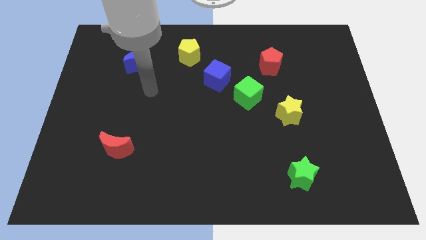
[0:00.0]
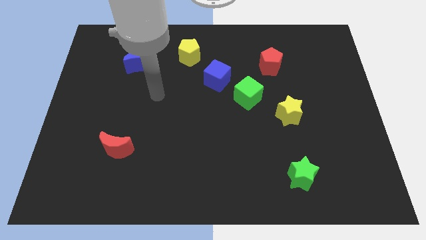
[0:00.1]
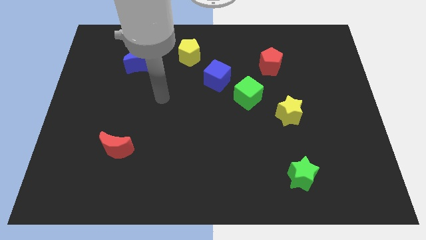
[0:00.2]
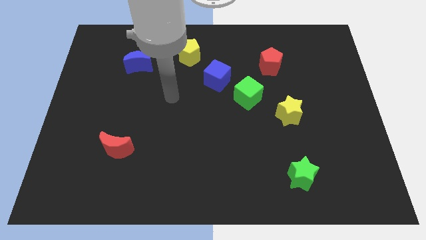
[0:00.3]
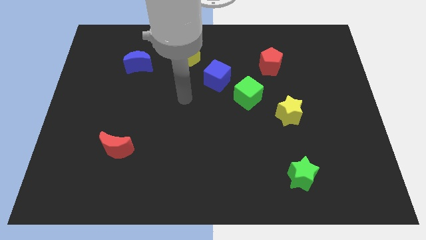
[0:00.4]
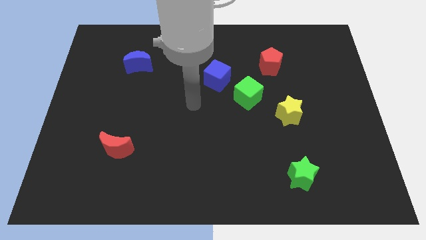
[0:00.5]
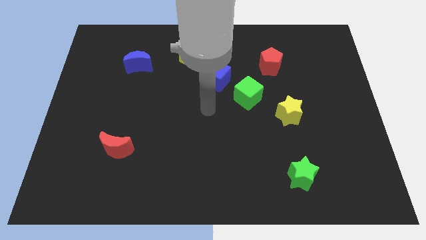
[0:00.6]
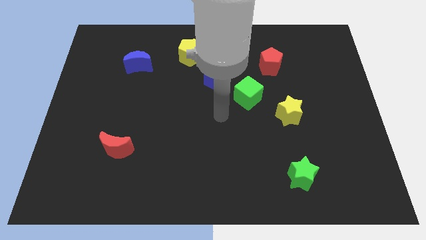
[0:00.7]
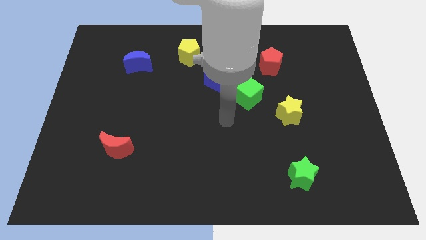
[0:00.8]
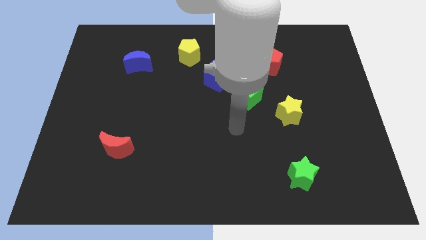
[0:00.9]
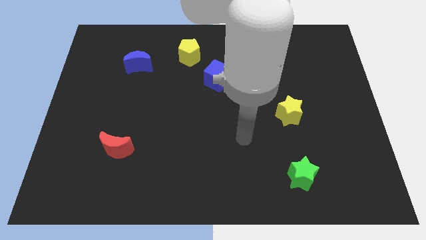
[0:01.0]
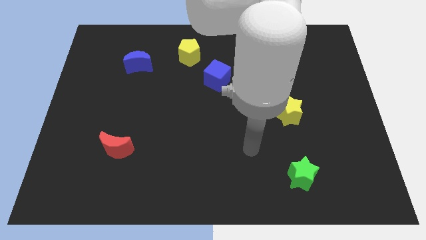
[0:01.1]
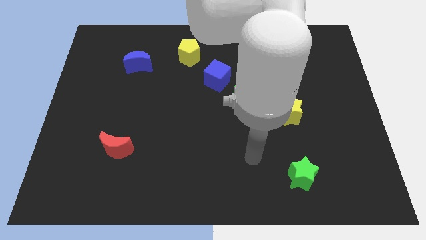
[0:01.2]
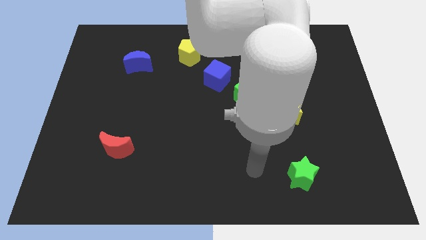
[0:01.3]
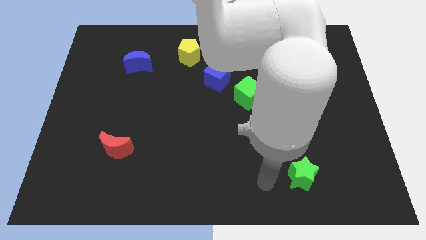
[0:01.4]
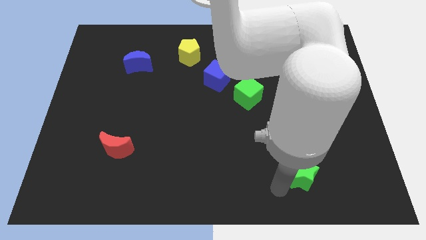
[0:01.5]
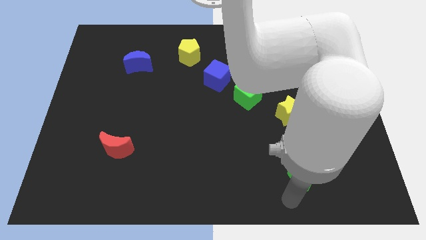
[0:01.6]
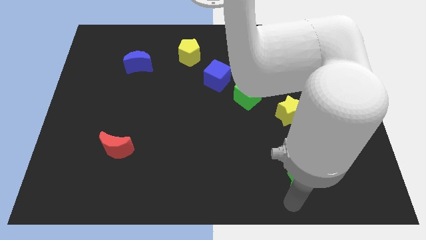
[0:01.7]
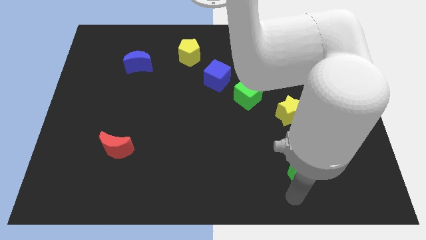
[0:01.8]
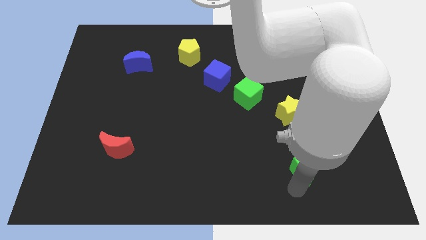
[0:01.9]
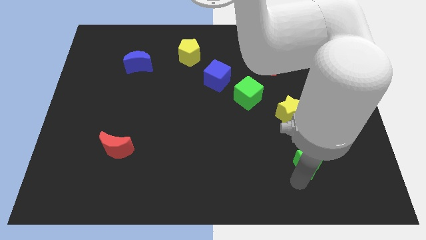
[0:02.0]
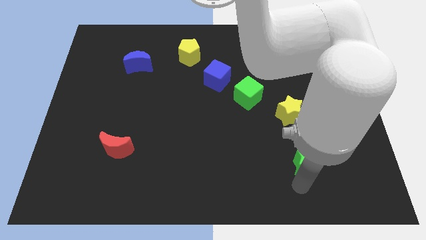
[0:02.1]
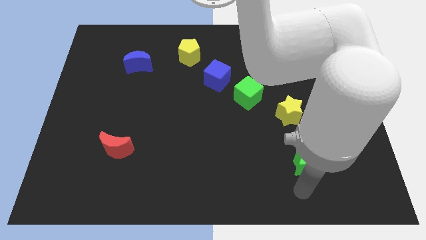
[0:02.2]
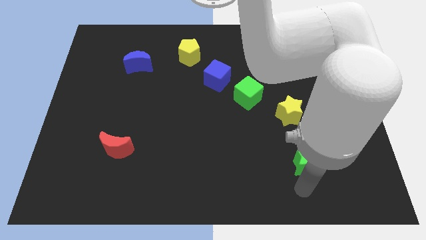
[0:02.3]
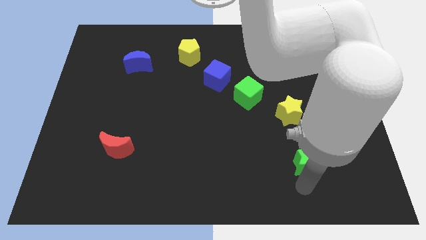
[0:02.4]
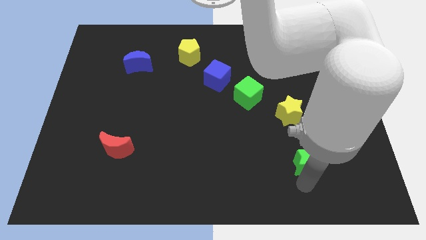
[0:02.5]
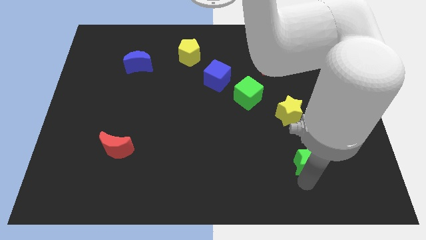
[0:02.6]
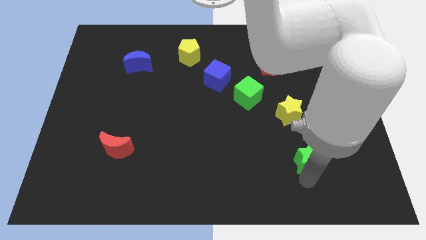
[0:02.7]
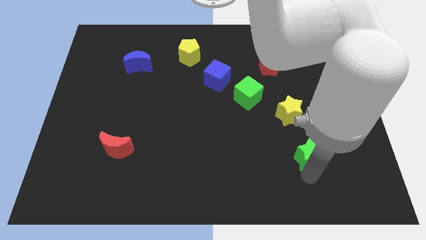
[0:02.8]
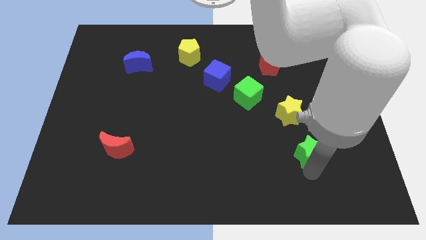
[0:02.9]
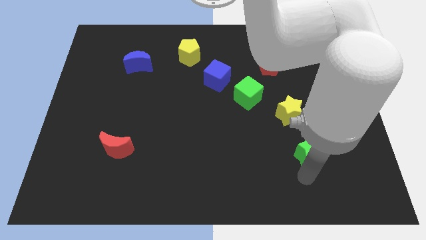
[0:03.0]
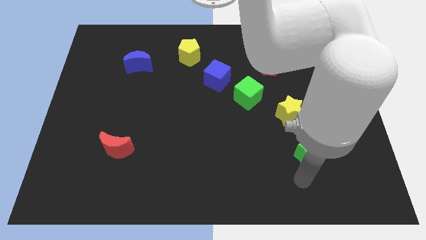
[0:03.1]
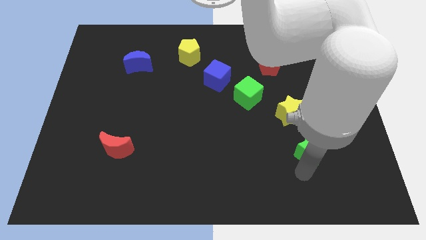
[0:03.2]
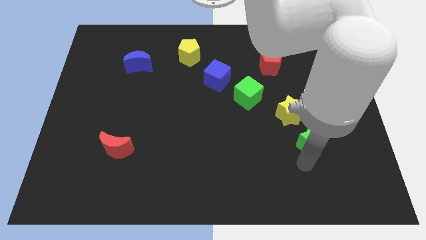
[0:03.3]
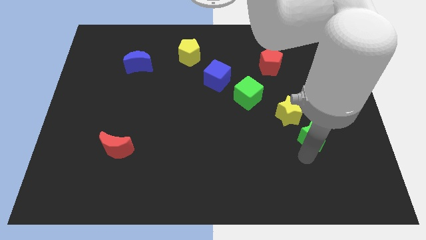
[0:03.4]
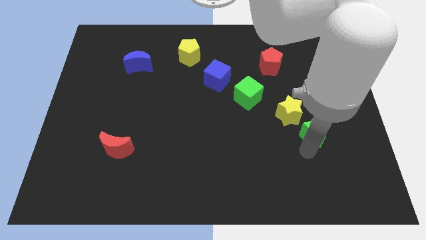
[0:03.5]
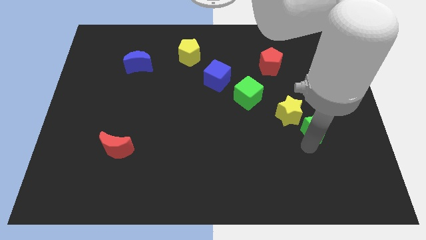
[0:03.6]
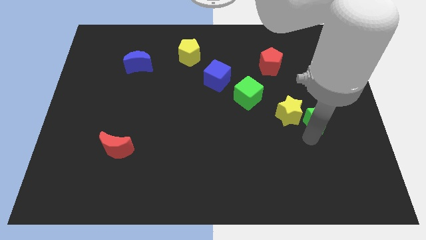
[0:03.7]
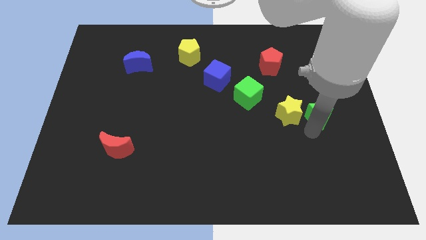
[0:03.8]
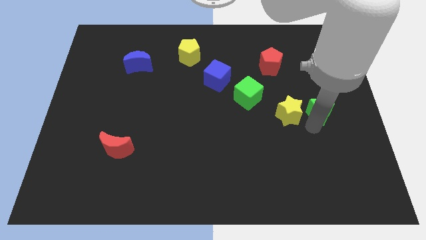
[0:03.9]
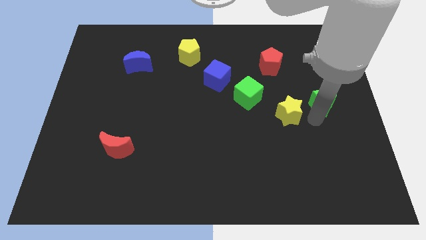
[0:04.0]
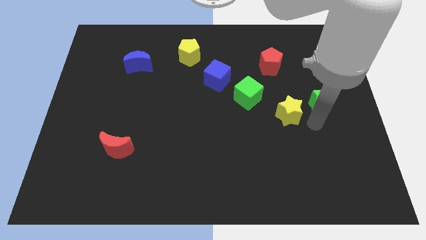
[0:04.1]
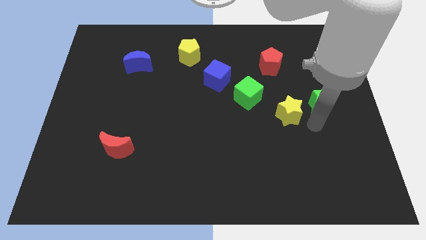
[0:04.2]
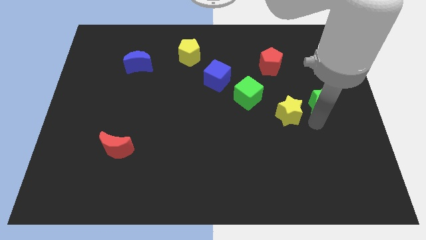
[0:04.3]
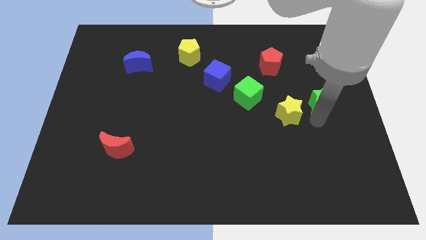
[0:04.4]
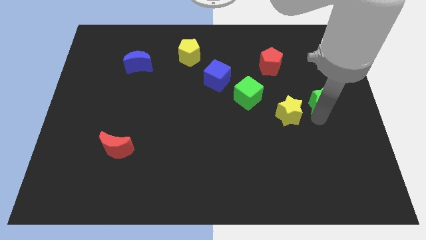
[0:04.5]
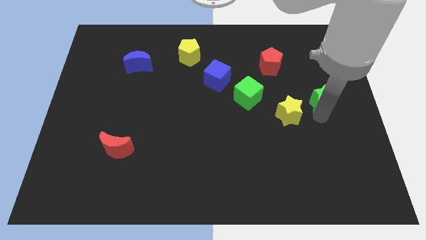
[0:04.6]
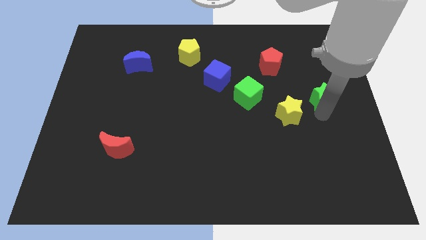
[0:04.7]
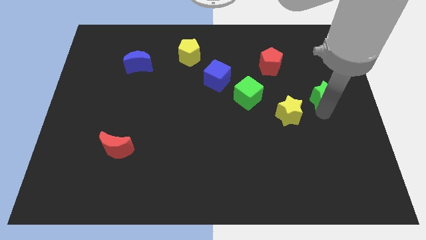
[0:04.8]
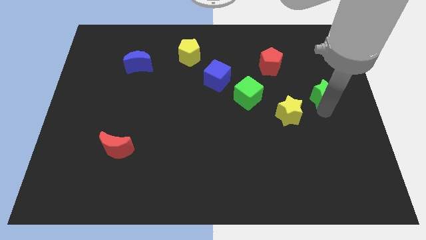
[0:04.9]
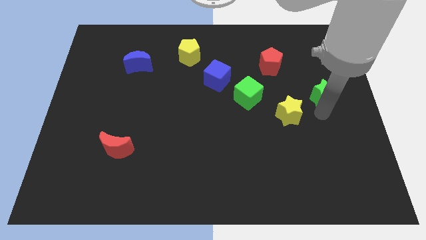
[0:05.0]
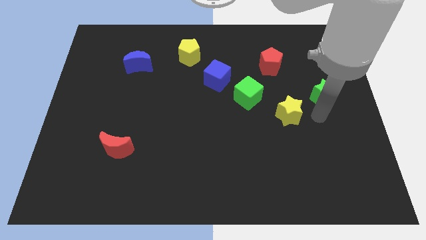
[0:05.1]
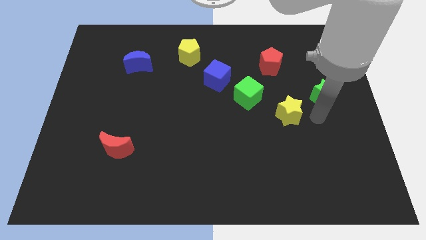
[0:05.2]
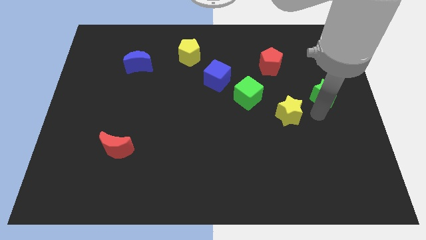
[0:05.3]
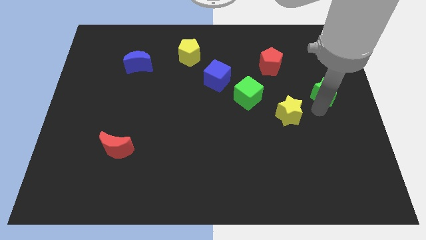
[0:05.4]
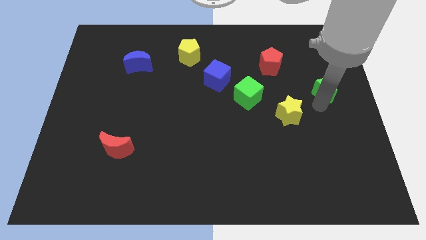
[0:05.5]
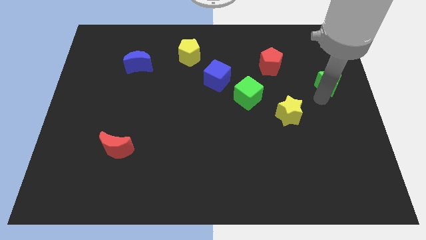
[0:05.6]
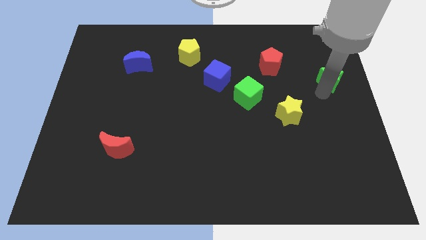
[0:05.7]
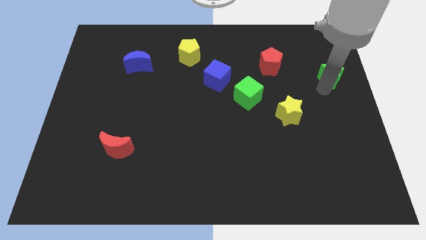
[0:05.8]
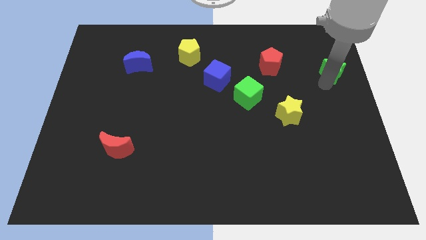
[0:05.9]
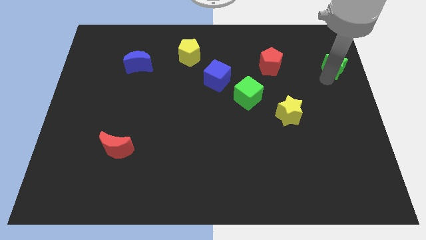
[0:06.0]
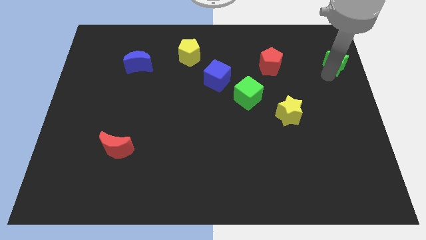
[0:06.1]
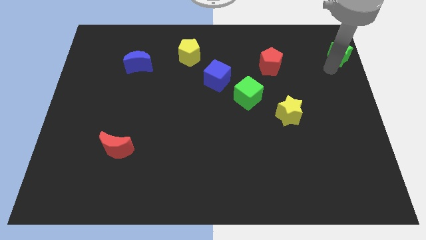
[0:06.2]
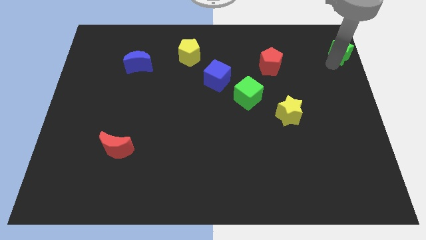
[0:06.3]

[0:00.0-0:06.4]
move the green star to the top right corner
